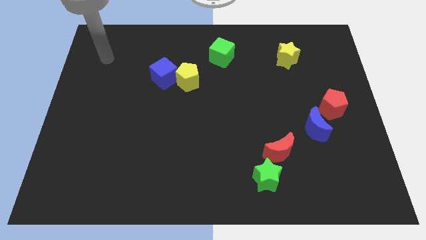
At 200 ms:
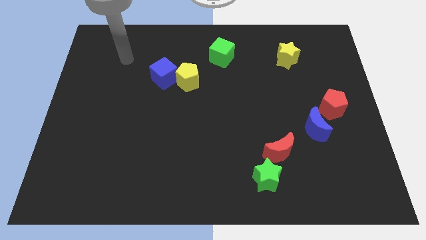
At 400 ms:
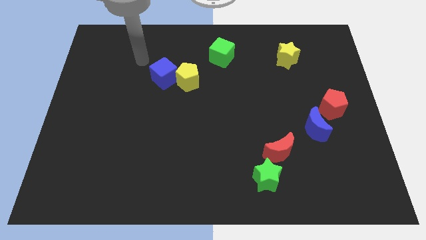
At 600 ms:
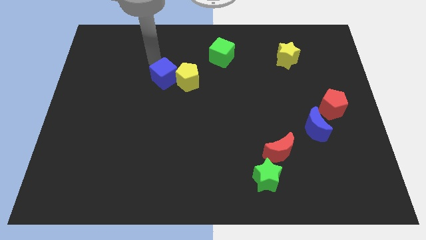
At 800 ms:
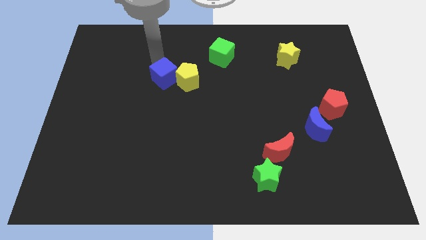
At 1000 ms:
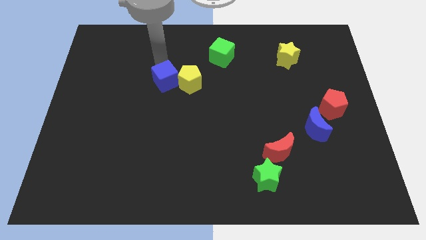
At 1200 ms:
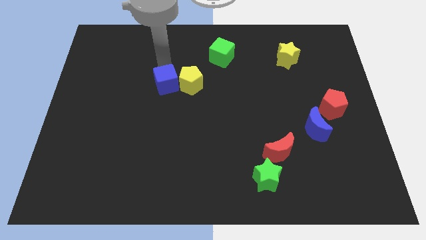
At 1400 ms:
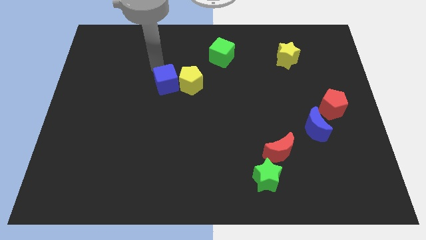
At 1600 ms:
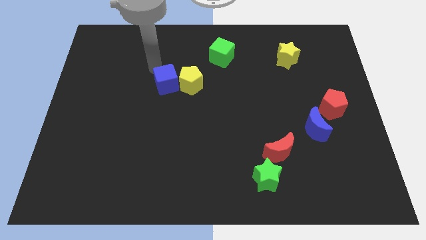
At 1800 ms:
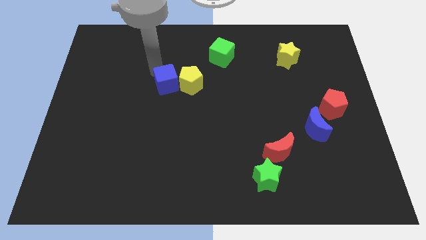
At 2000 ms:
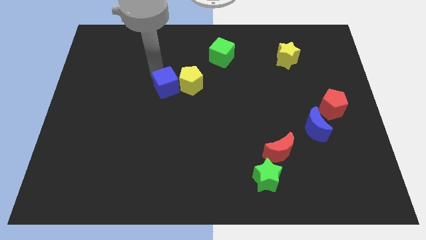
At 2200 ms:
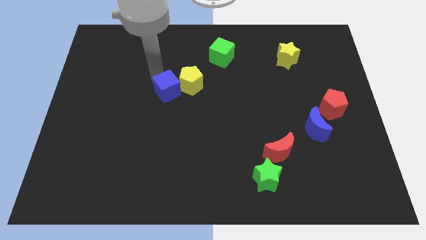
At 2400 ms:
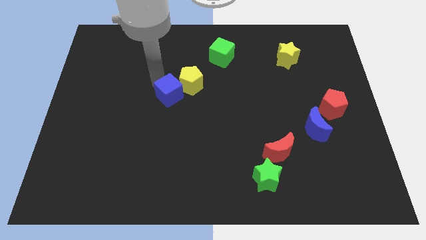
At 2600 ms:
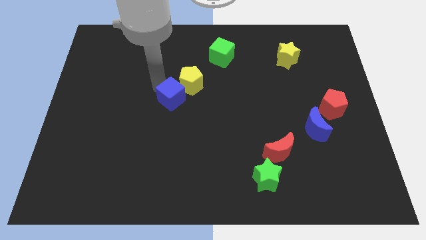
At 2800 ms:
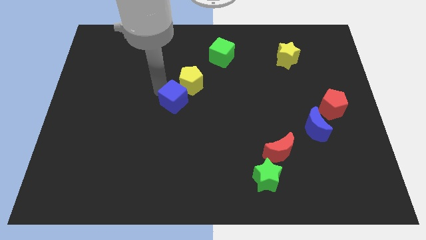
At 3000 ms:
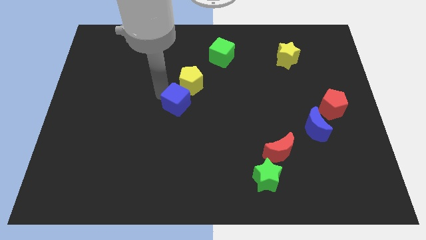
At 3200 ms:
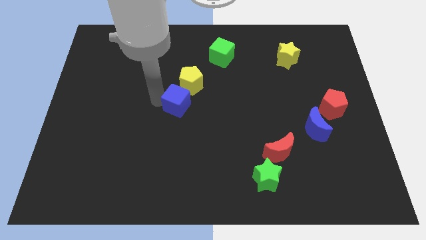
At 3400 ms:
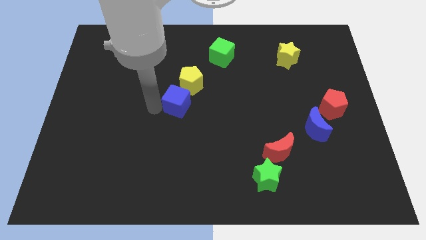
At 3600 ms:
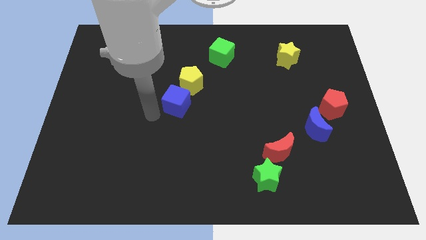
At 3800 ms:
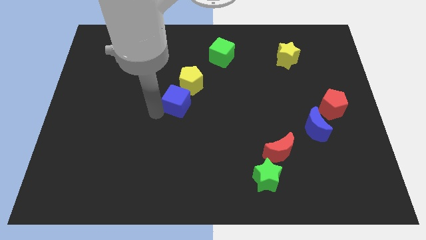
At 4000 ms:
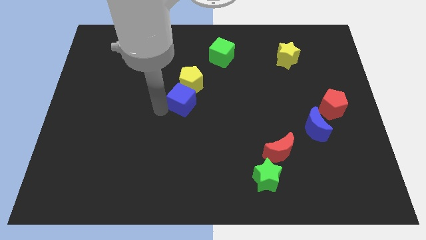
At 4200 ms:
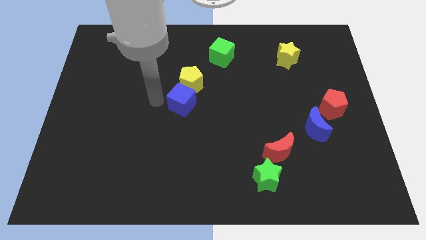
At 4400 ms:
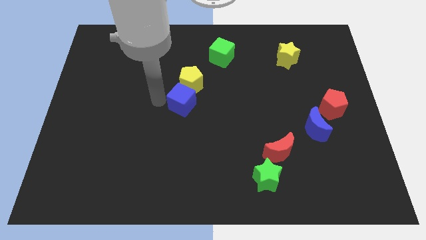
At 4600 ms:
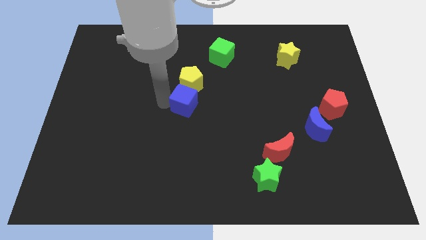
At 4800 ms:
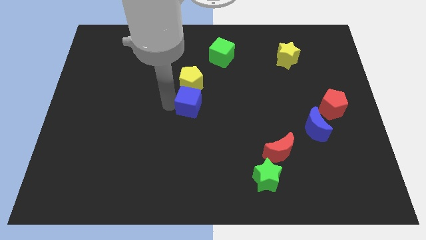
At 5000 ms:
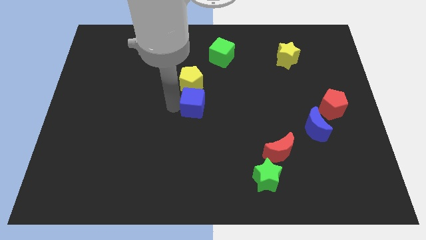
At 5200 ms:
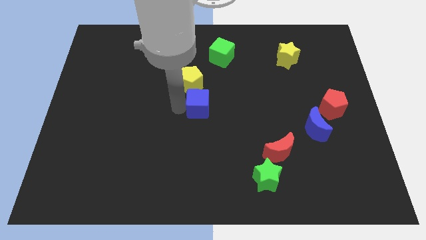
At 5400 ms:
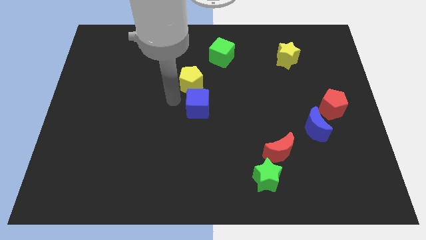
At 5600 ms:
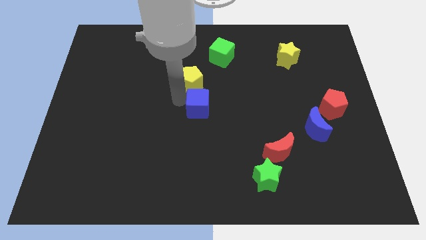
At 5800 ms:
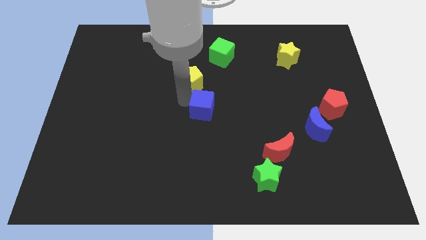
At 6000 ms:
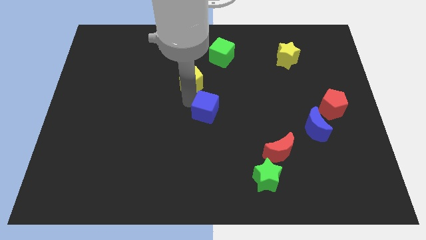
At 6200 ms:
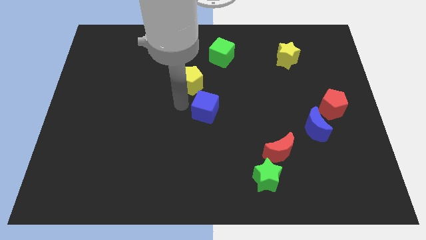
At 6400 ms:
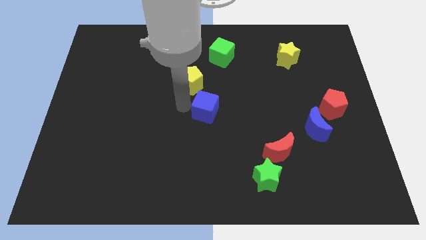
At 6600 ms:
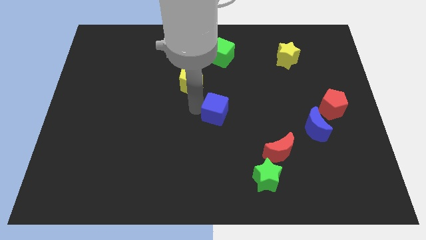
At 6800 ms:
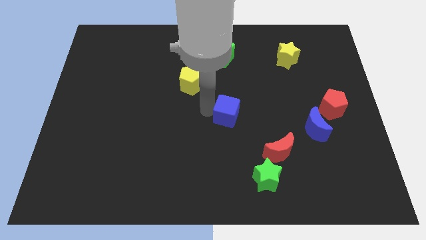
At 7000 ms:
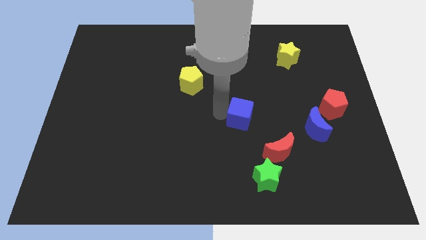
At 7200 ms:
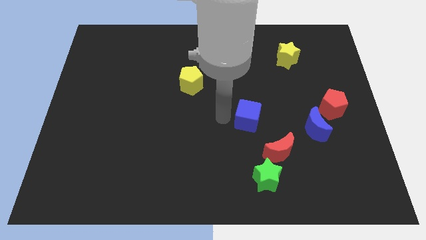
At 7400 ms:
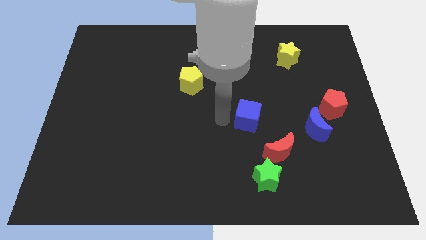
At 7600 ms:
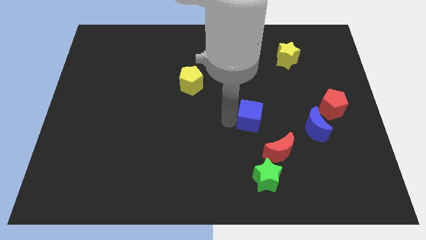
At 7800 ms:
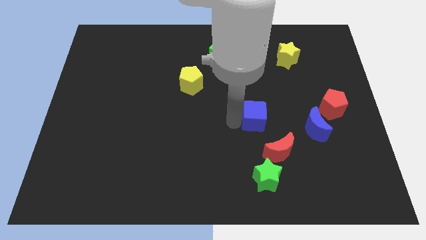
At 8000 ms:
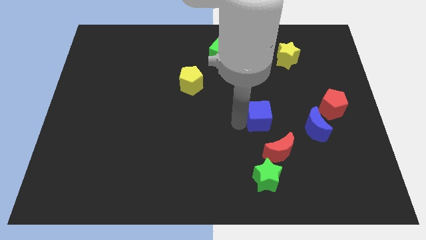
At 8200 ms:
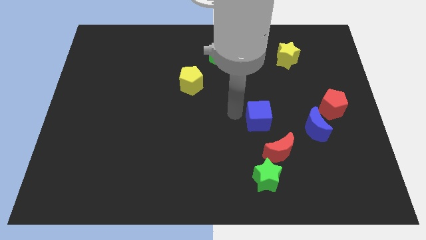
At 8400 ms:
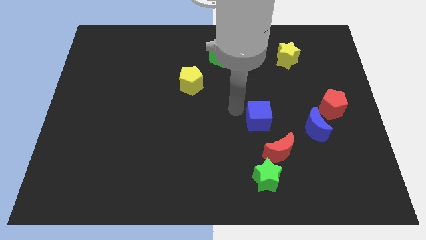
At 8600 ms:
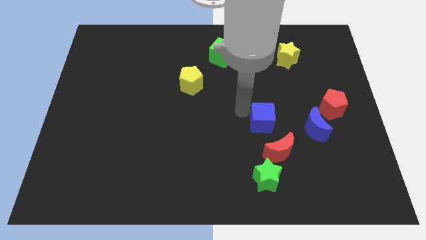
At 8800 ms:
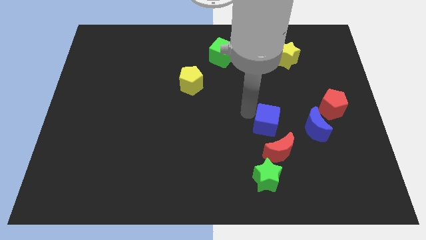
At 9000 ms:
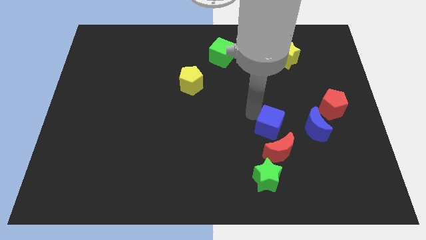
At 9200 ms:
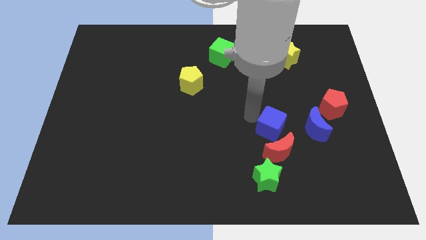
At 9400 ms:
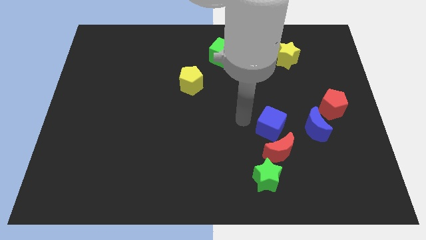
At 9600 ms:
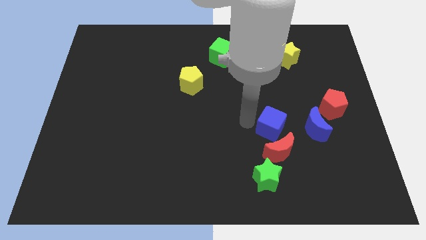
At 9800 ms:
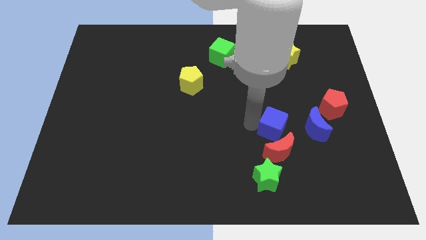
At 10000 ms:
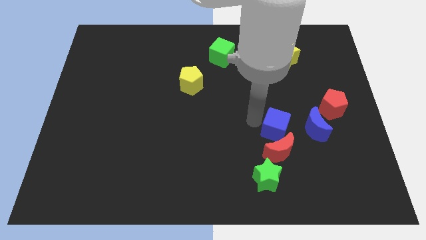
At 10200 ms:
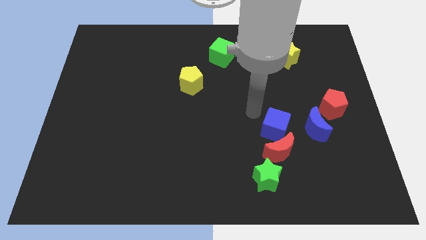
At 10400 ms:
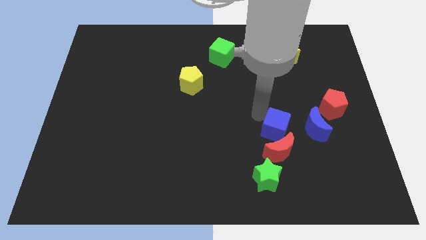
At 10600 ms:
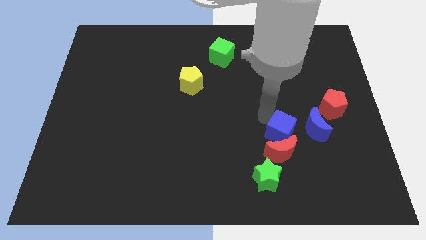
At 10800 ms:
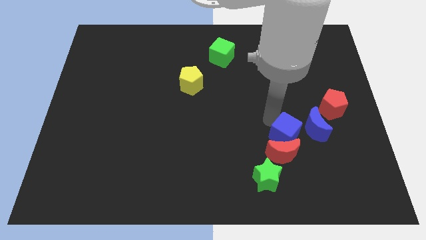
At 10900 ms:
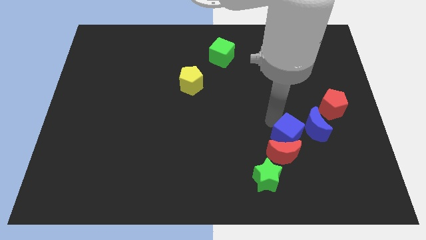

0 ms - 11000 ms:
slide the blue cube to the top right of the green star
